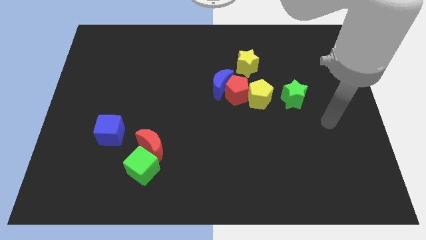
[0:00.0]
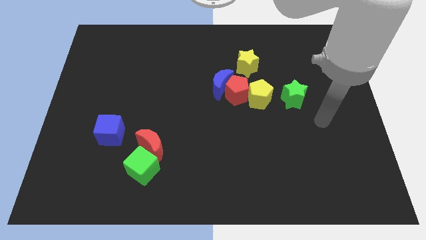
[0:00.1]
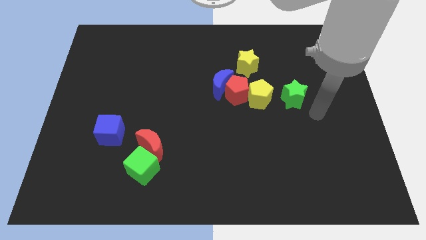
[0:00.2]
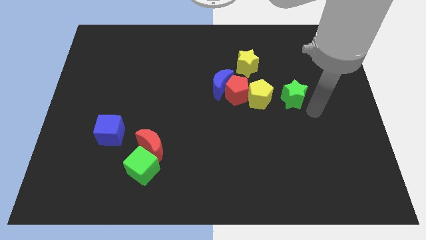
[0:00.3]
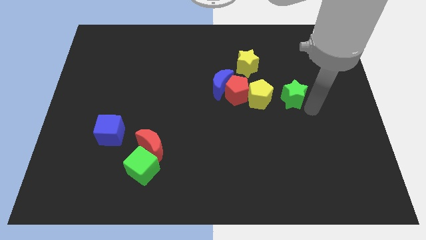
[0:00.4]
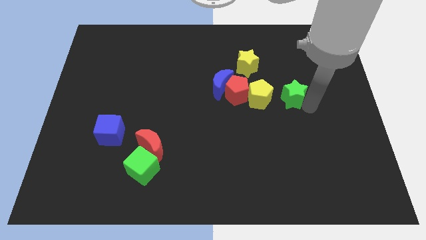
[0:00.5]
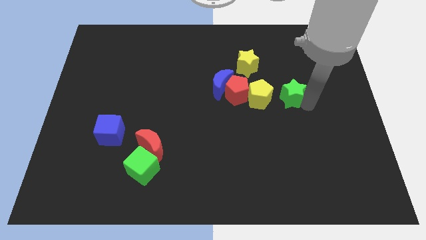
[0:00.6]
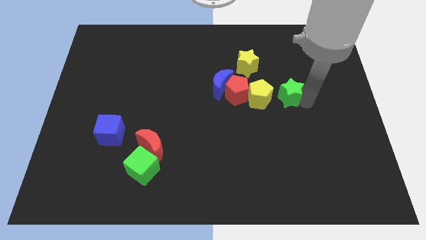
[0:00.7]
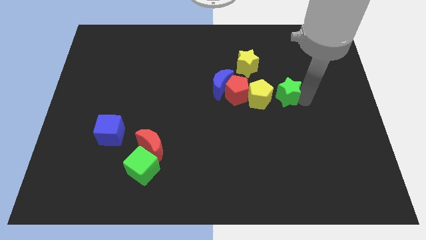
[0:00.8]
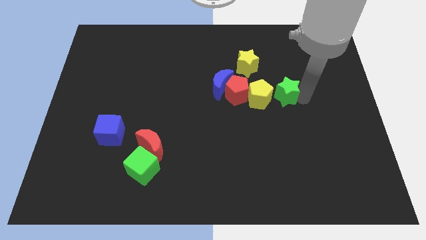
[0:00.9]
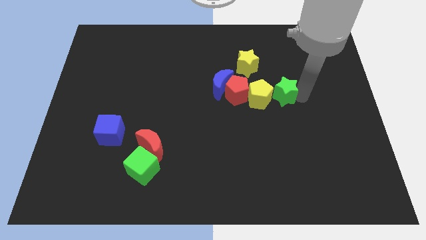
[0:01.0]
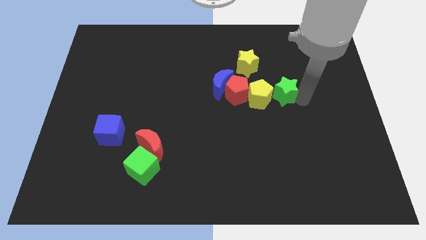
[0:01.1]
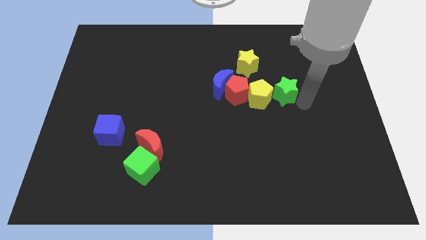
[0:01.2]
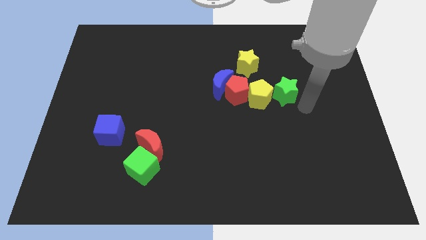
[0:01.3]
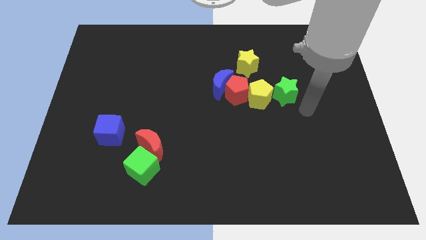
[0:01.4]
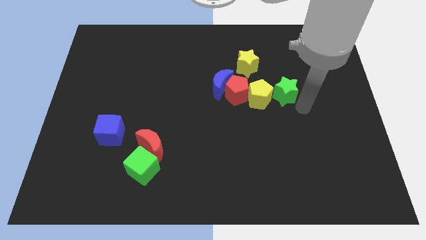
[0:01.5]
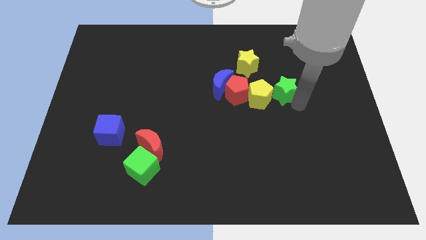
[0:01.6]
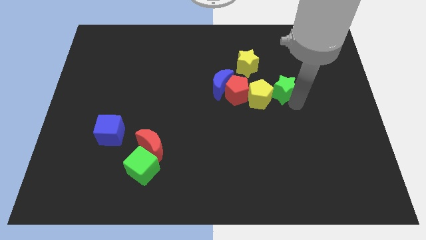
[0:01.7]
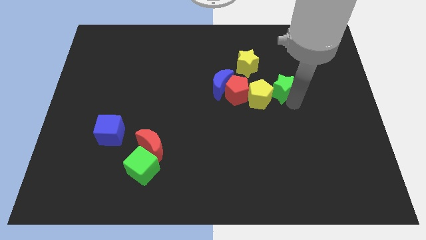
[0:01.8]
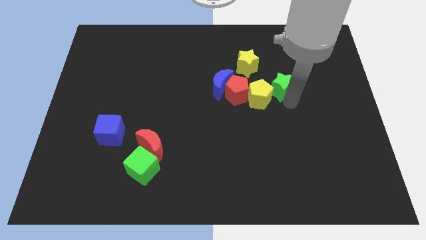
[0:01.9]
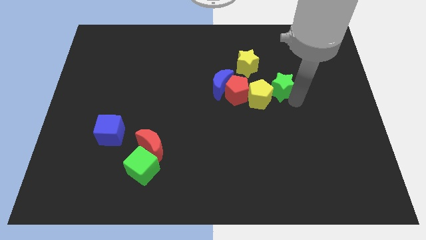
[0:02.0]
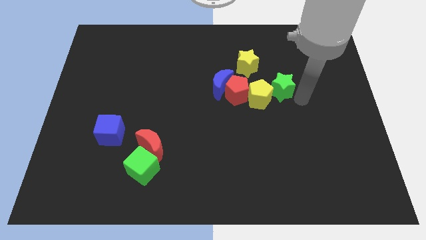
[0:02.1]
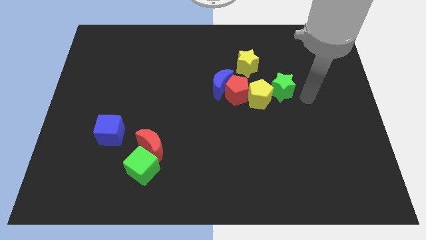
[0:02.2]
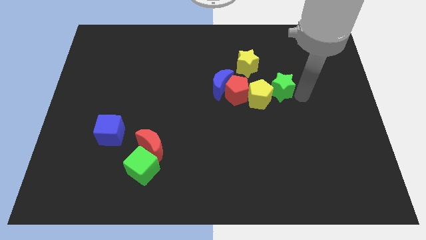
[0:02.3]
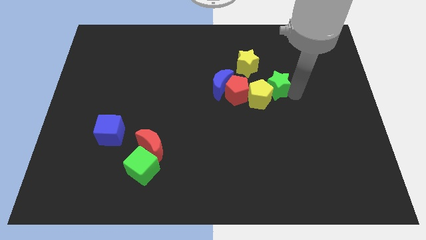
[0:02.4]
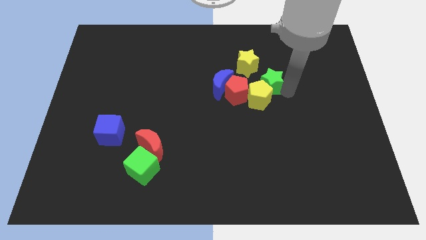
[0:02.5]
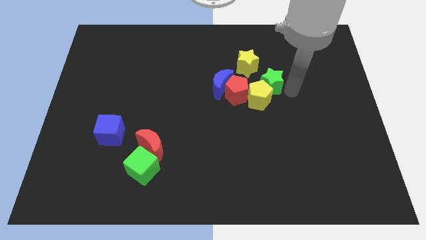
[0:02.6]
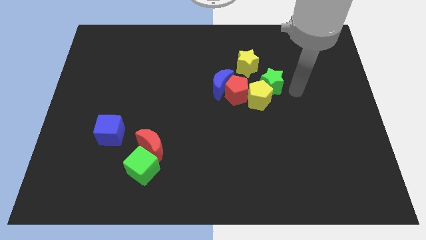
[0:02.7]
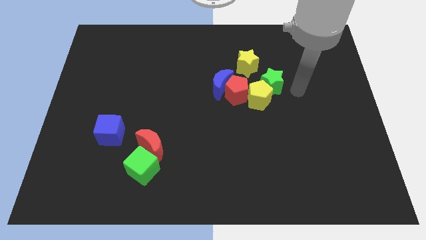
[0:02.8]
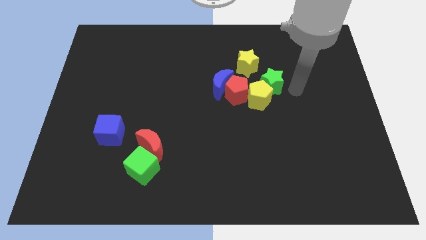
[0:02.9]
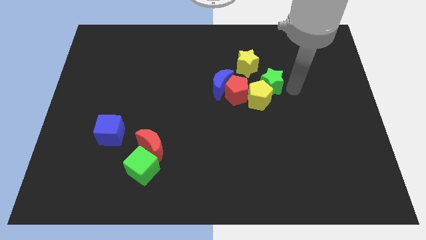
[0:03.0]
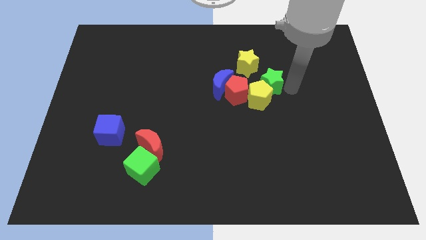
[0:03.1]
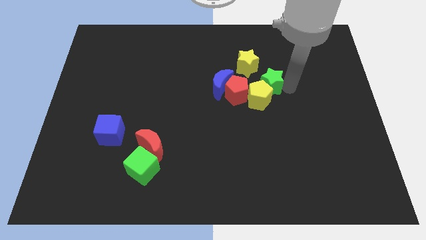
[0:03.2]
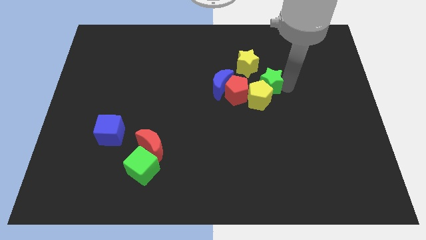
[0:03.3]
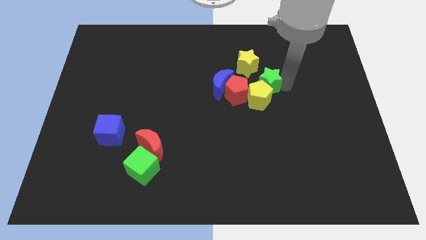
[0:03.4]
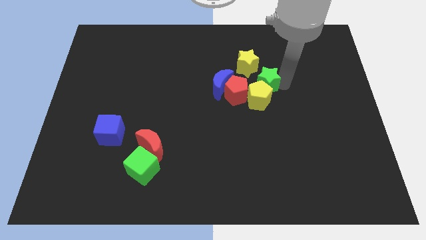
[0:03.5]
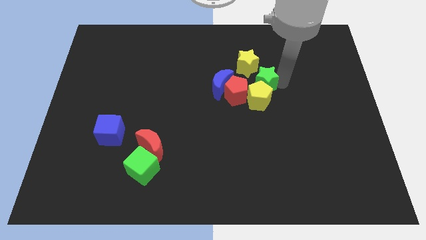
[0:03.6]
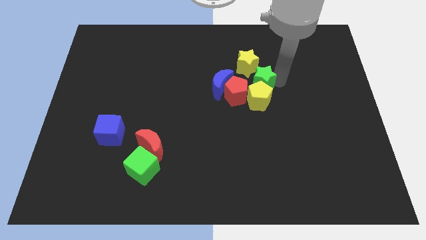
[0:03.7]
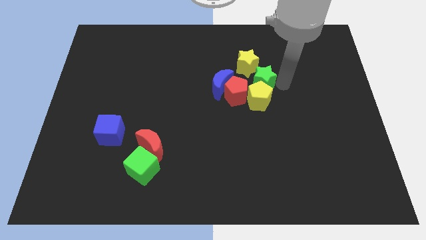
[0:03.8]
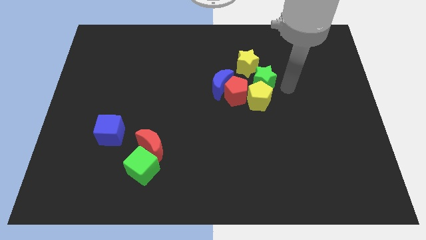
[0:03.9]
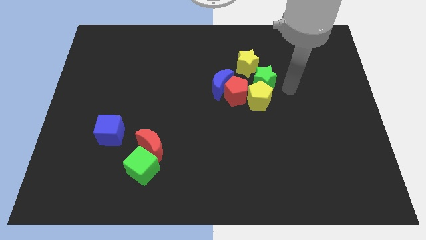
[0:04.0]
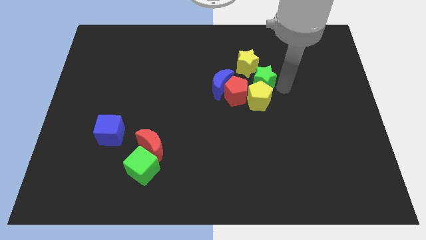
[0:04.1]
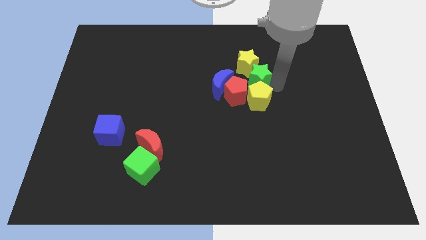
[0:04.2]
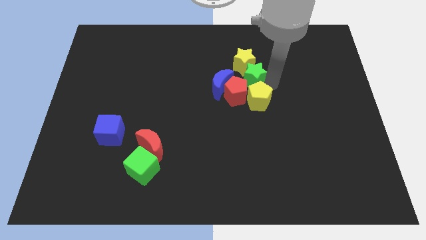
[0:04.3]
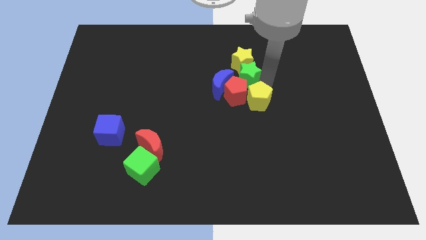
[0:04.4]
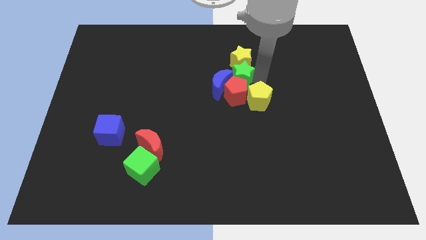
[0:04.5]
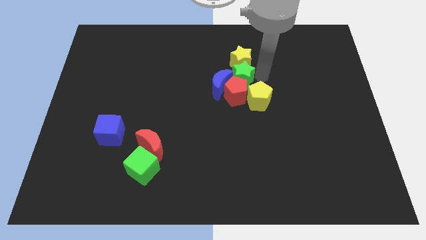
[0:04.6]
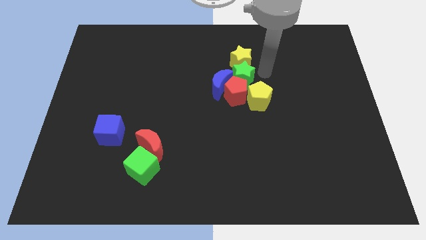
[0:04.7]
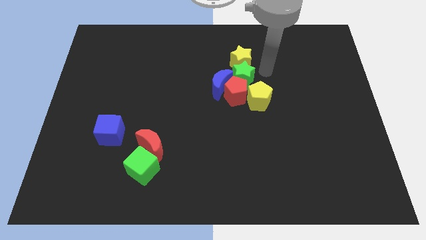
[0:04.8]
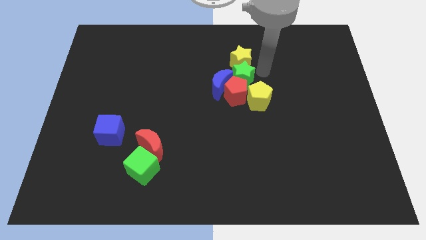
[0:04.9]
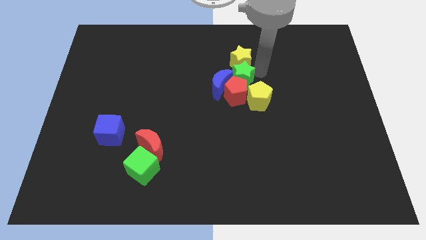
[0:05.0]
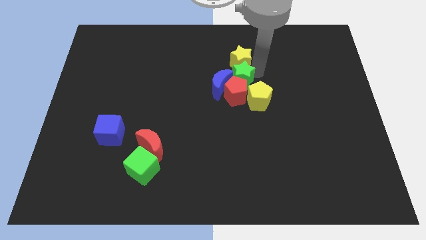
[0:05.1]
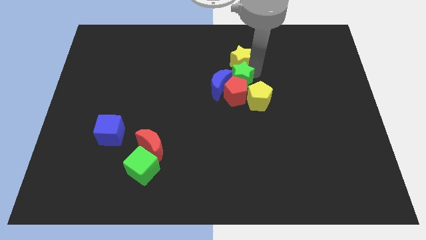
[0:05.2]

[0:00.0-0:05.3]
move the green star towards the blue moon

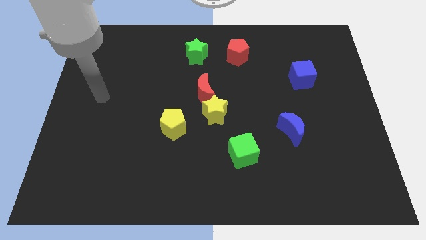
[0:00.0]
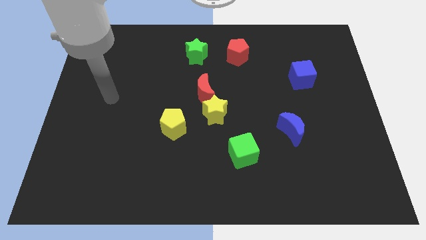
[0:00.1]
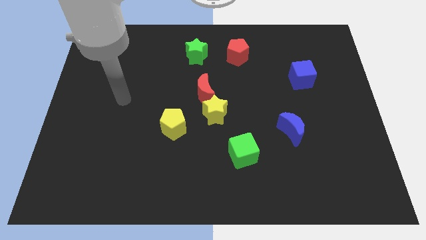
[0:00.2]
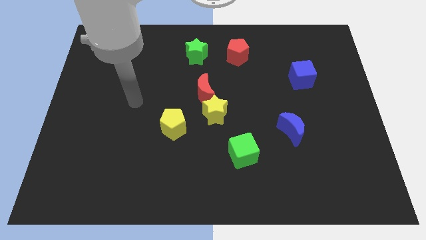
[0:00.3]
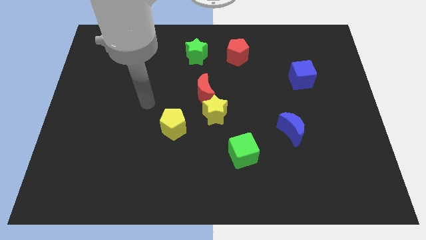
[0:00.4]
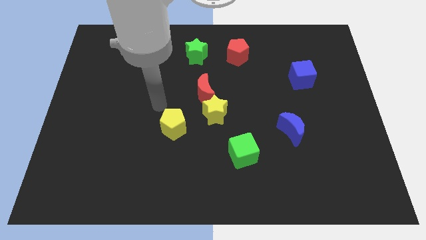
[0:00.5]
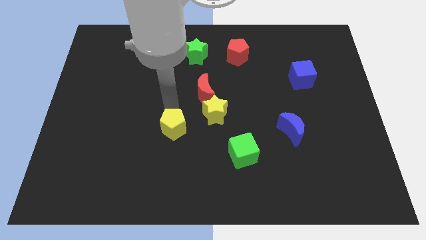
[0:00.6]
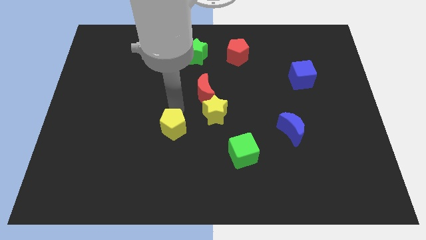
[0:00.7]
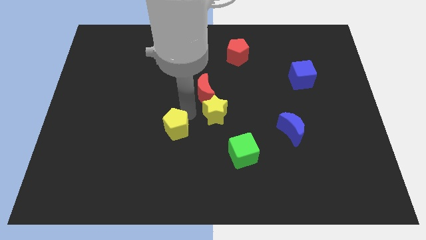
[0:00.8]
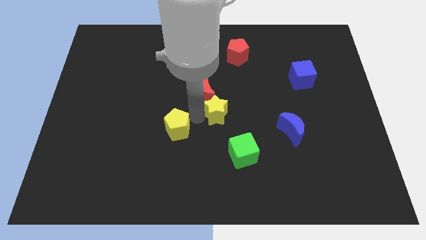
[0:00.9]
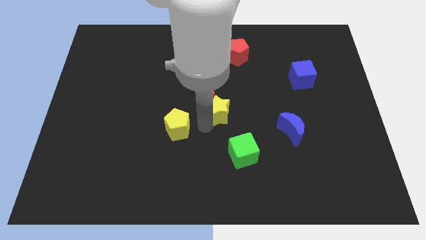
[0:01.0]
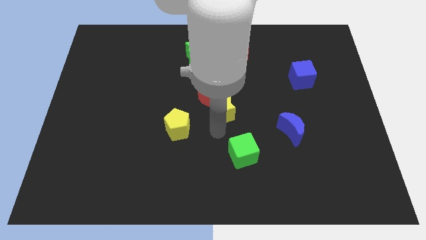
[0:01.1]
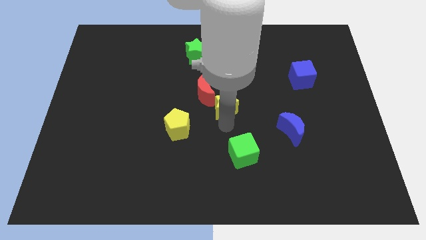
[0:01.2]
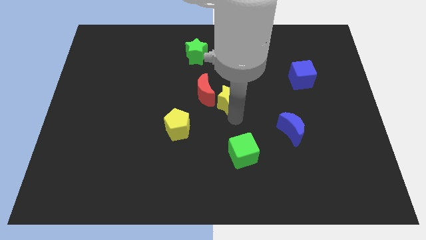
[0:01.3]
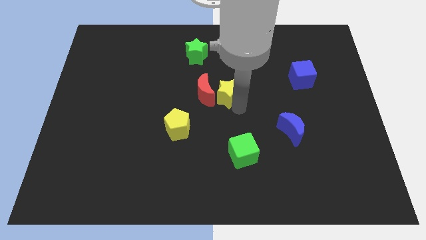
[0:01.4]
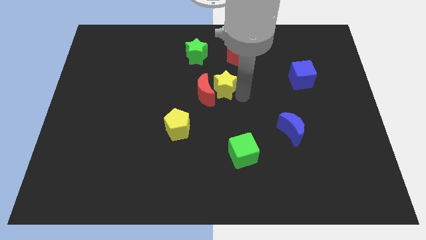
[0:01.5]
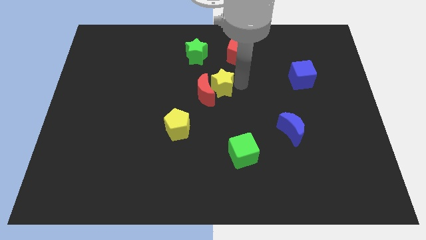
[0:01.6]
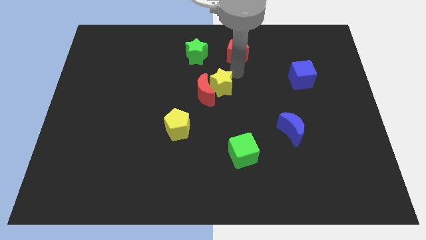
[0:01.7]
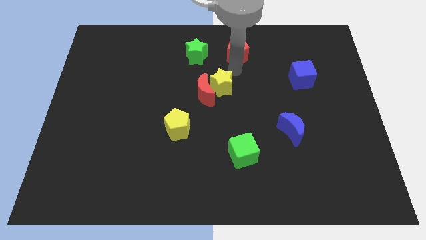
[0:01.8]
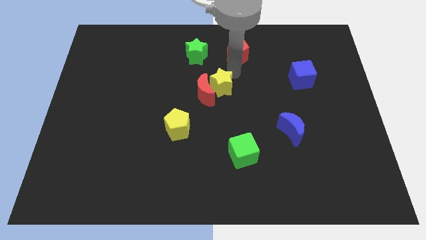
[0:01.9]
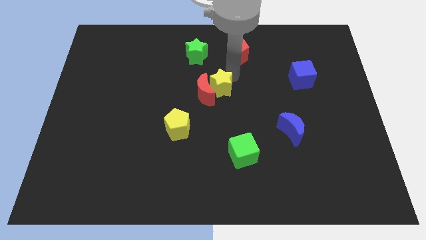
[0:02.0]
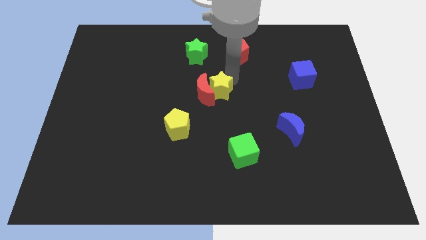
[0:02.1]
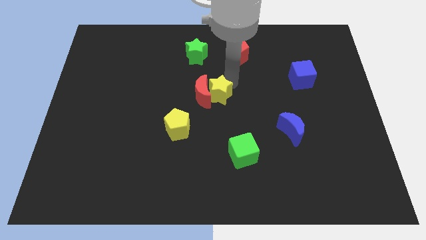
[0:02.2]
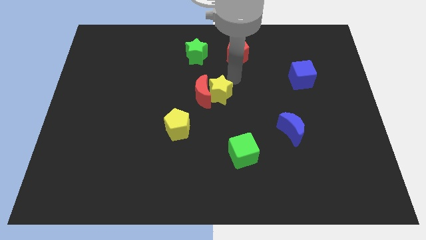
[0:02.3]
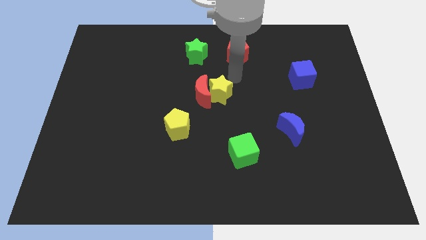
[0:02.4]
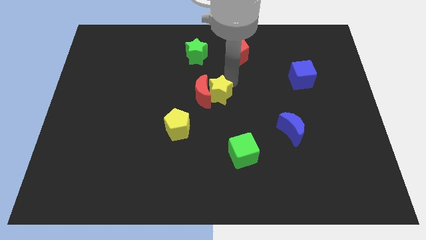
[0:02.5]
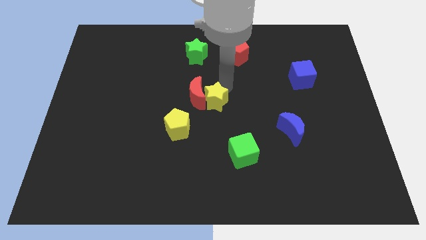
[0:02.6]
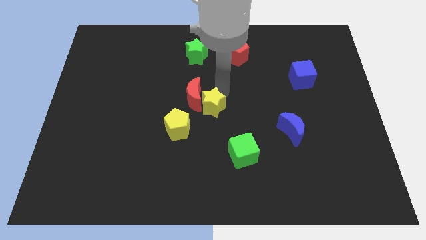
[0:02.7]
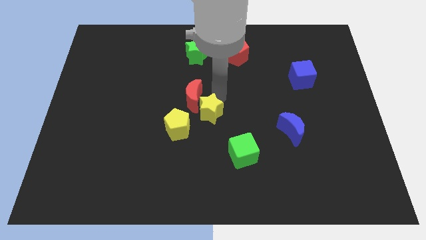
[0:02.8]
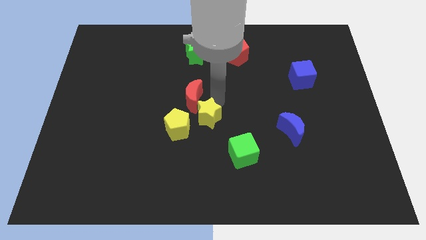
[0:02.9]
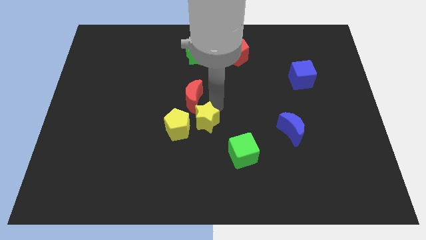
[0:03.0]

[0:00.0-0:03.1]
put the yellow star towards the yellow pentagon
